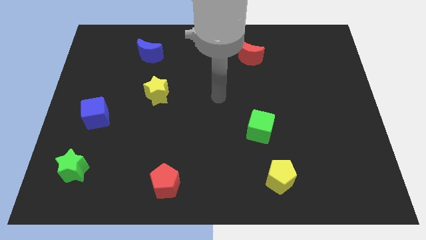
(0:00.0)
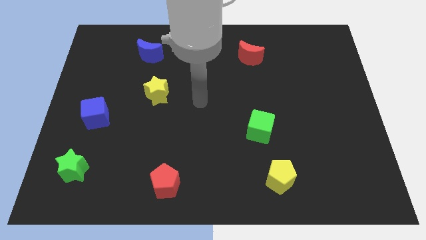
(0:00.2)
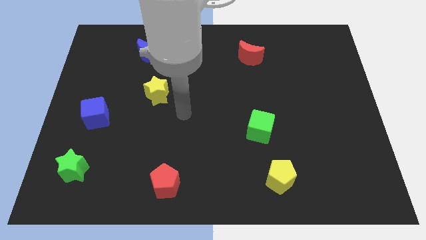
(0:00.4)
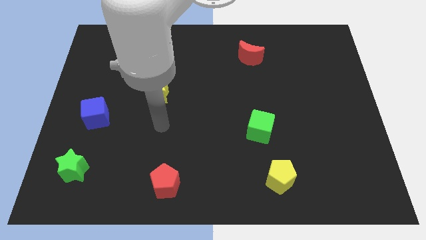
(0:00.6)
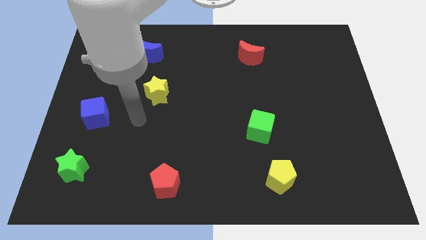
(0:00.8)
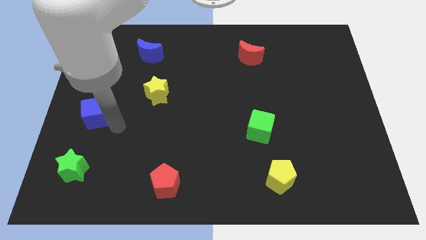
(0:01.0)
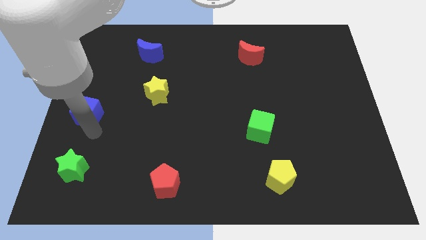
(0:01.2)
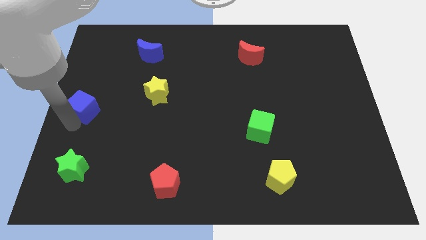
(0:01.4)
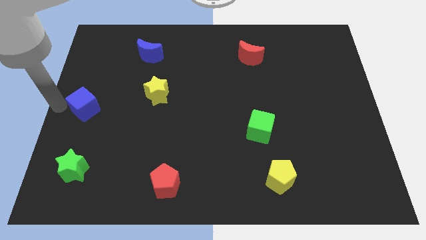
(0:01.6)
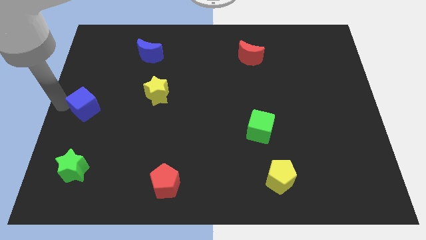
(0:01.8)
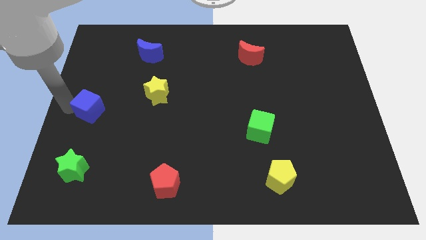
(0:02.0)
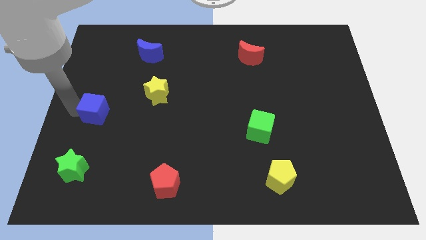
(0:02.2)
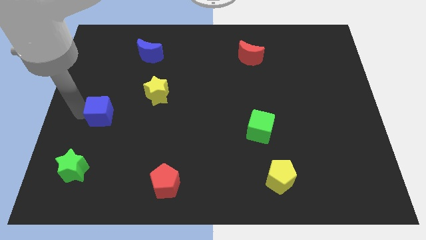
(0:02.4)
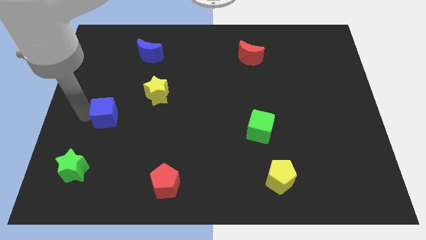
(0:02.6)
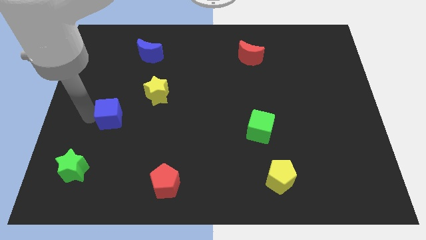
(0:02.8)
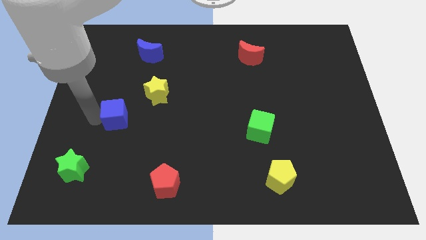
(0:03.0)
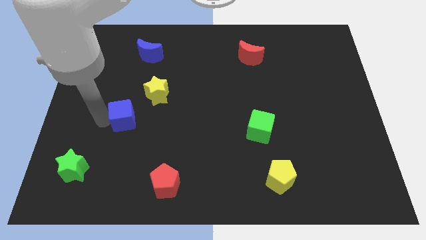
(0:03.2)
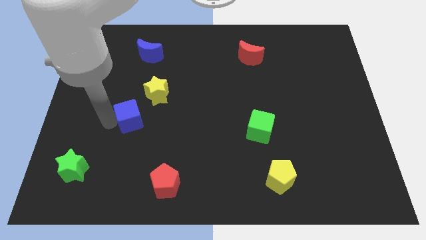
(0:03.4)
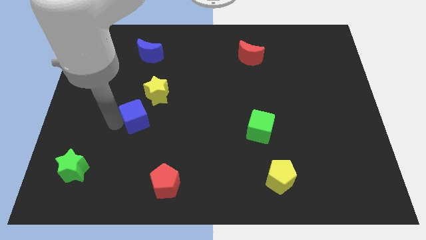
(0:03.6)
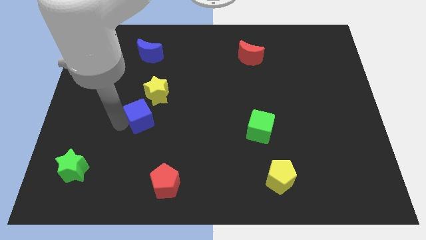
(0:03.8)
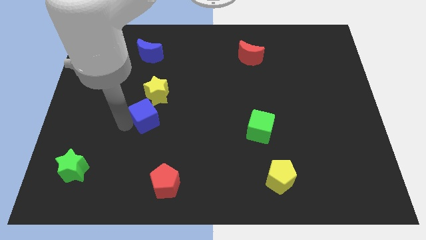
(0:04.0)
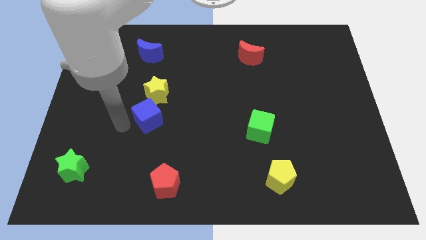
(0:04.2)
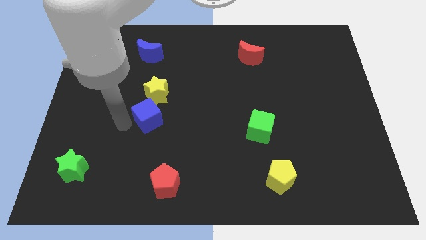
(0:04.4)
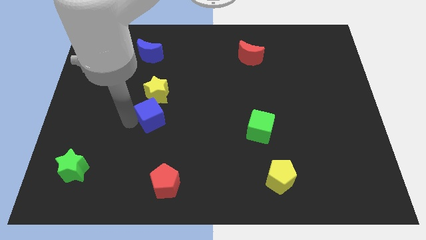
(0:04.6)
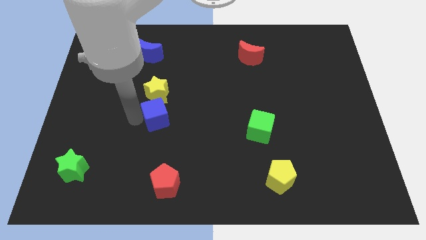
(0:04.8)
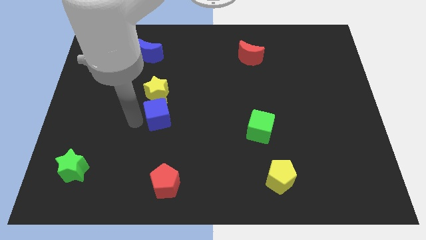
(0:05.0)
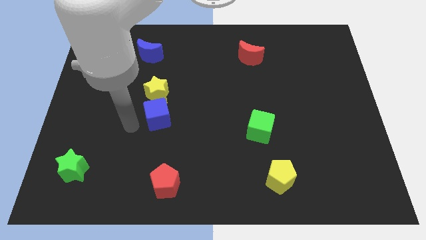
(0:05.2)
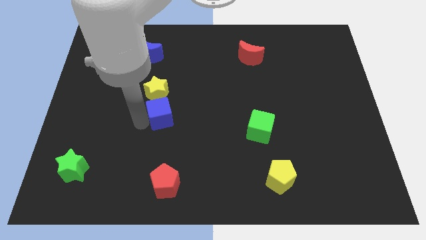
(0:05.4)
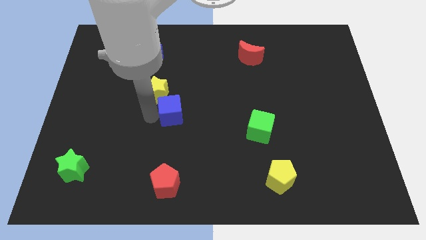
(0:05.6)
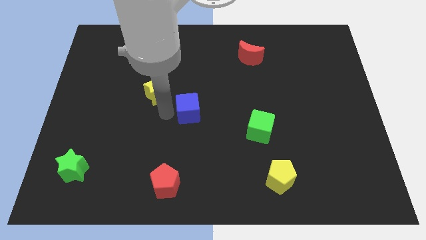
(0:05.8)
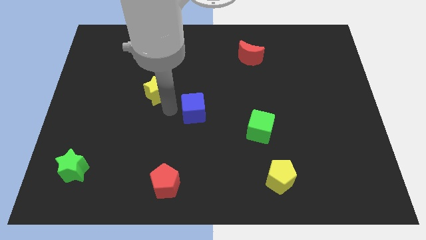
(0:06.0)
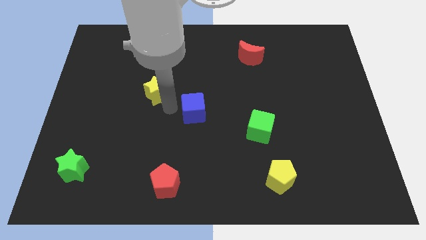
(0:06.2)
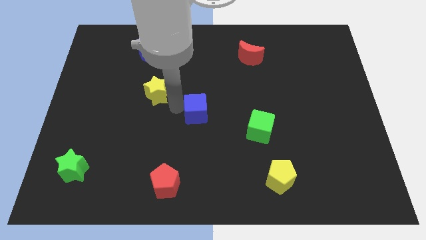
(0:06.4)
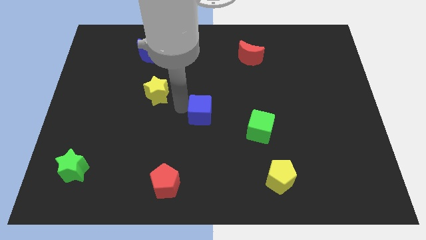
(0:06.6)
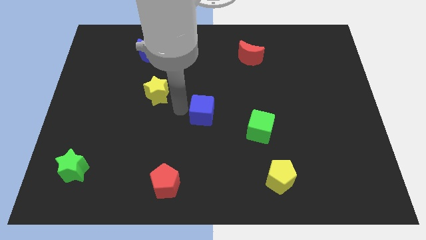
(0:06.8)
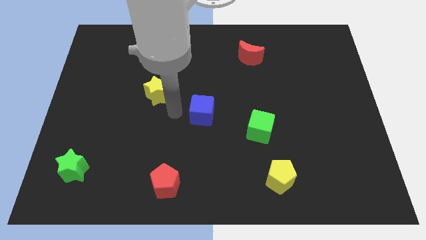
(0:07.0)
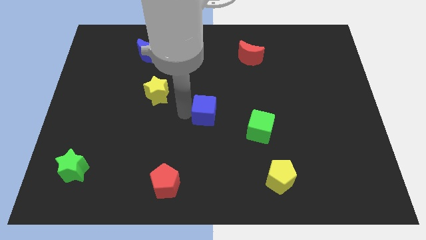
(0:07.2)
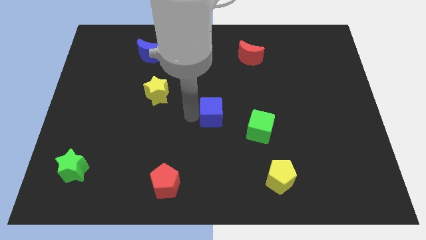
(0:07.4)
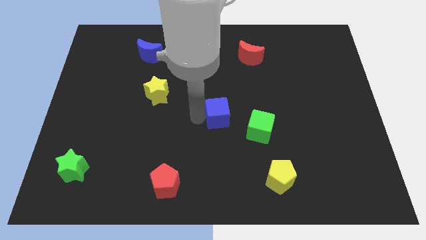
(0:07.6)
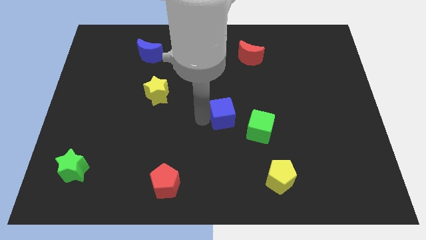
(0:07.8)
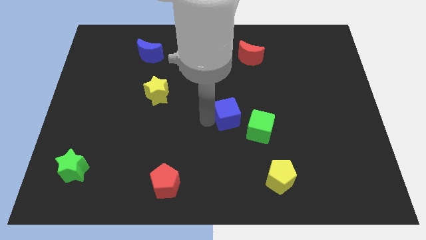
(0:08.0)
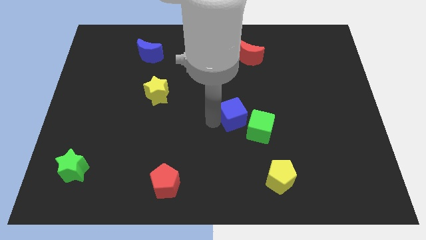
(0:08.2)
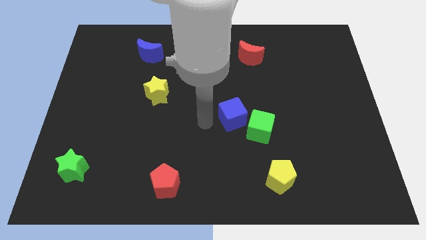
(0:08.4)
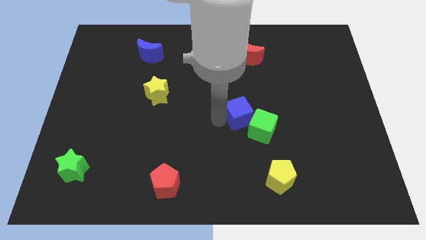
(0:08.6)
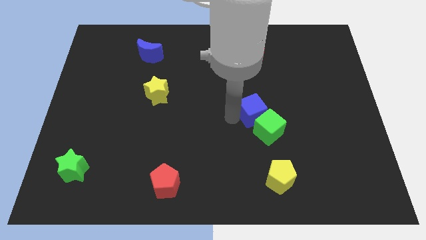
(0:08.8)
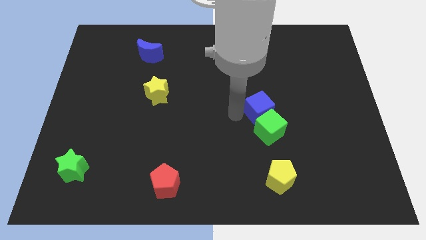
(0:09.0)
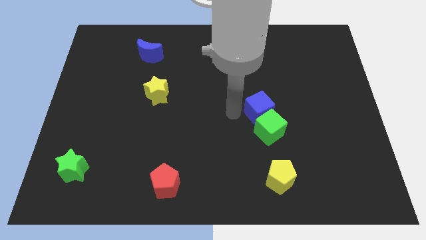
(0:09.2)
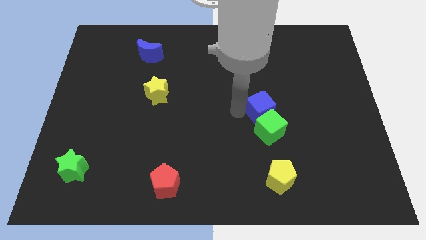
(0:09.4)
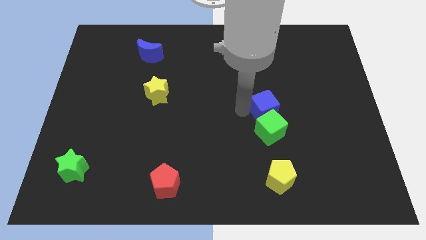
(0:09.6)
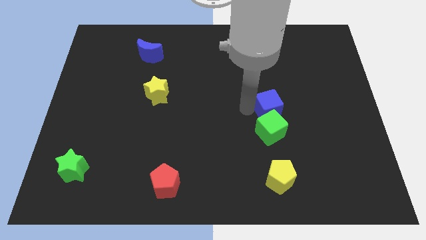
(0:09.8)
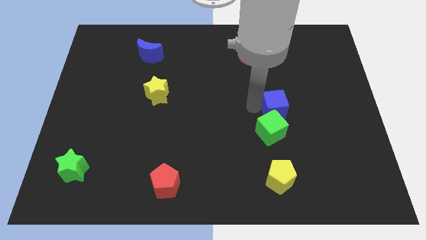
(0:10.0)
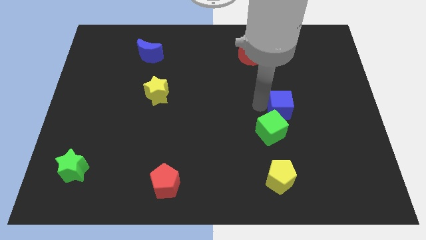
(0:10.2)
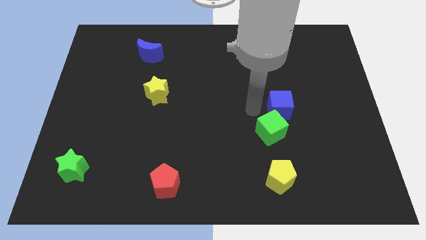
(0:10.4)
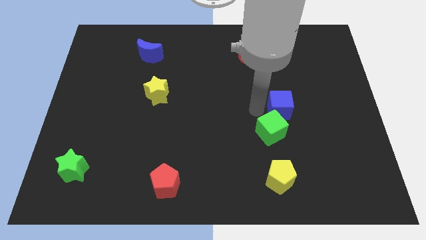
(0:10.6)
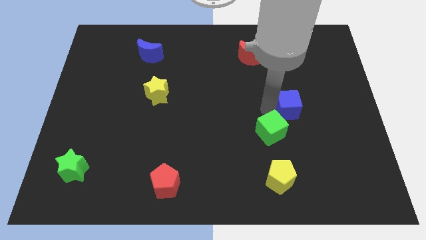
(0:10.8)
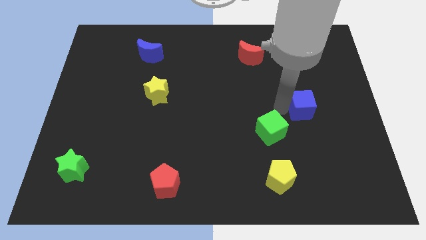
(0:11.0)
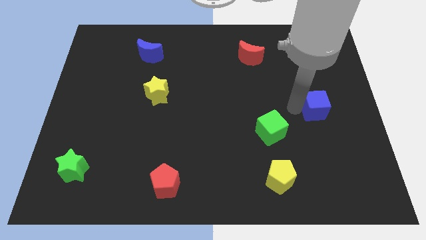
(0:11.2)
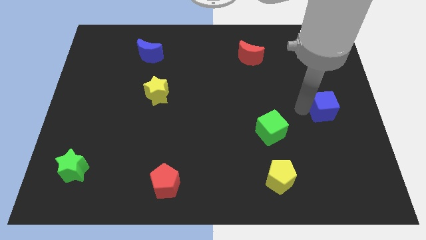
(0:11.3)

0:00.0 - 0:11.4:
move the blue cube to the right side

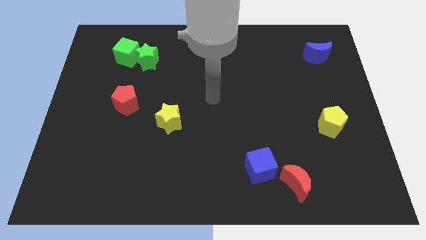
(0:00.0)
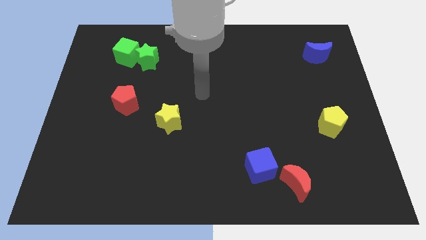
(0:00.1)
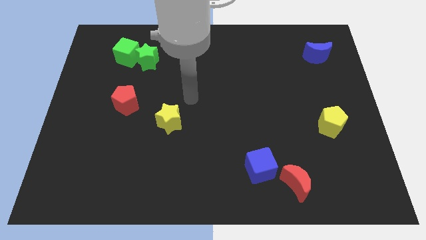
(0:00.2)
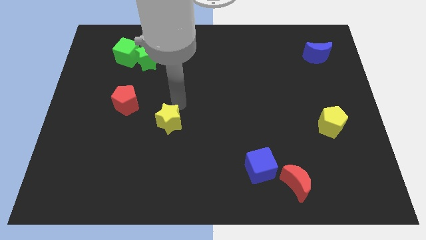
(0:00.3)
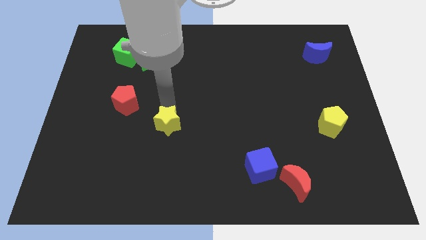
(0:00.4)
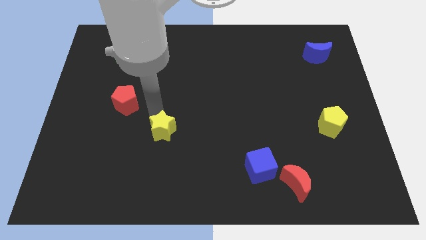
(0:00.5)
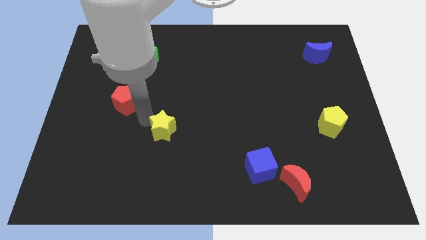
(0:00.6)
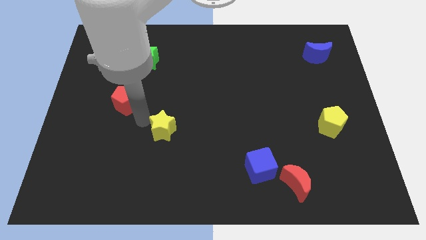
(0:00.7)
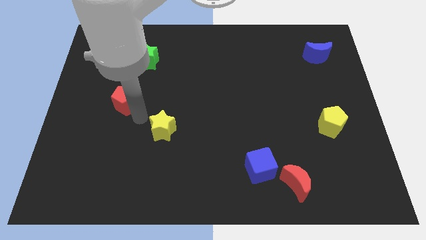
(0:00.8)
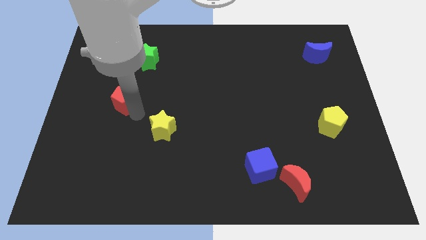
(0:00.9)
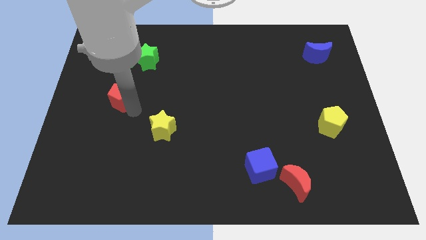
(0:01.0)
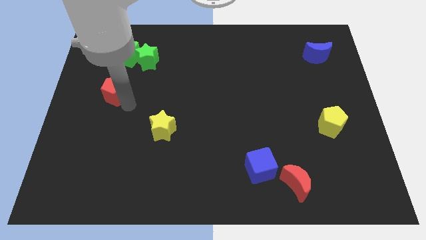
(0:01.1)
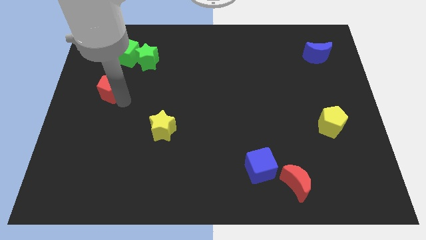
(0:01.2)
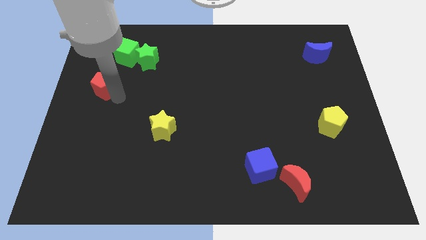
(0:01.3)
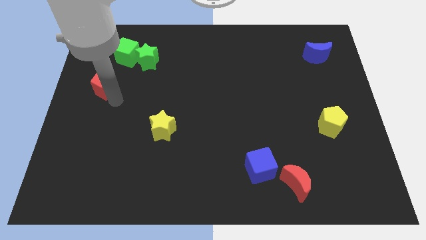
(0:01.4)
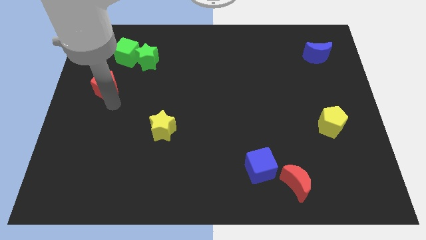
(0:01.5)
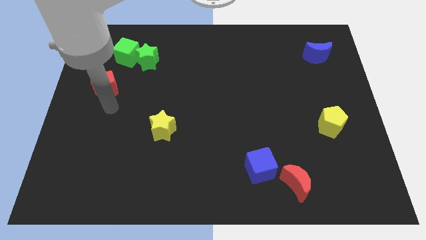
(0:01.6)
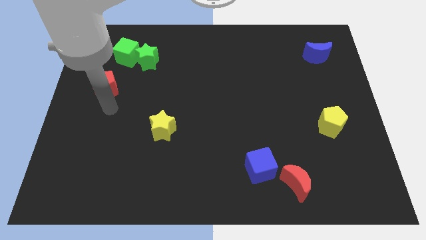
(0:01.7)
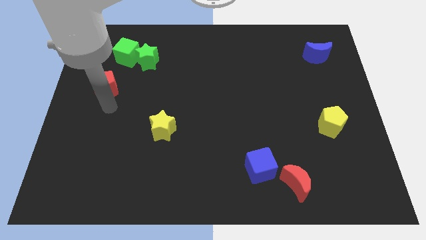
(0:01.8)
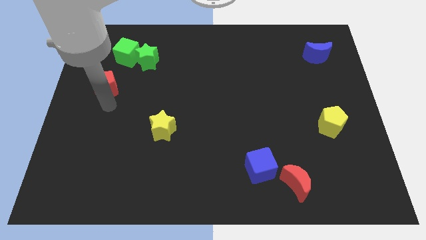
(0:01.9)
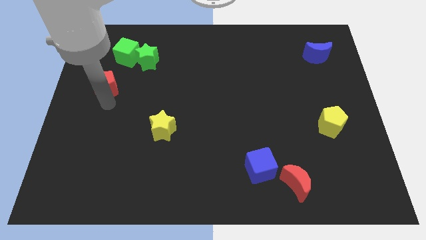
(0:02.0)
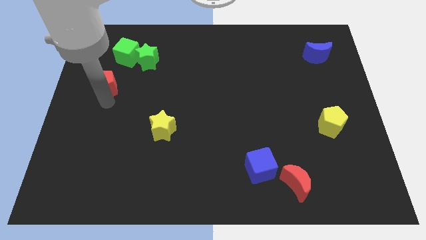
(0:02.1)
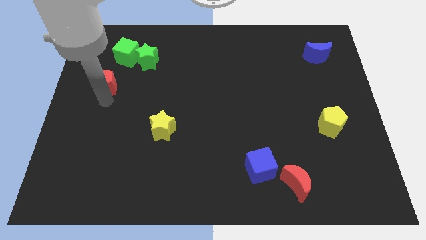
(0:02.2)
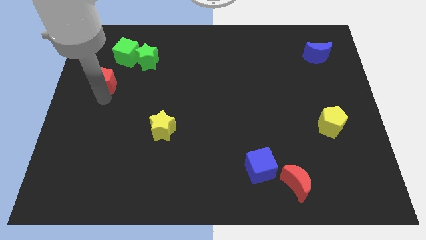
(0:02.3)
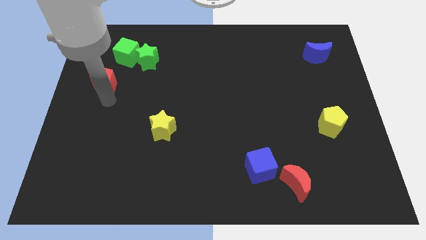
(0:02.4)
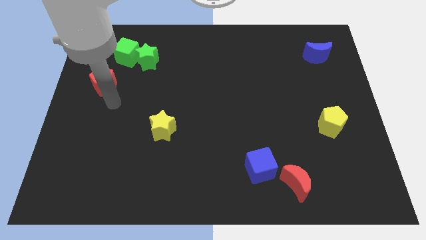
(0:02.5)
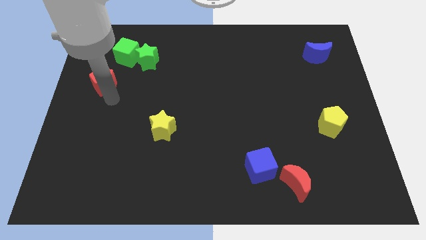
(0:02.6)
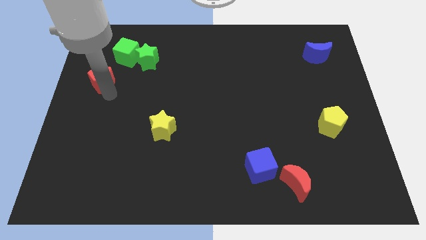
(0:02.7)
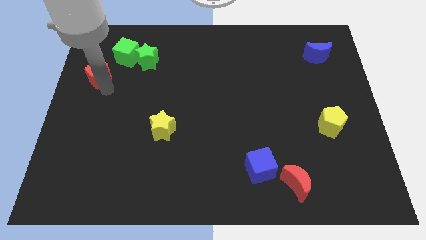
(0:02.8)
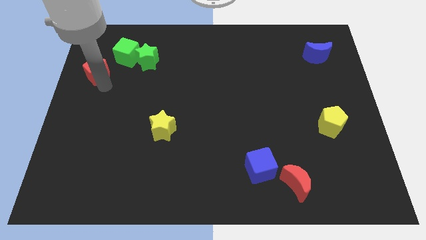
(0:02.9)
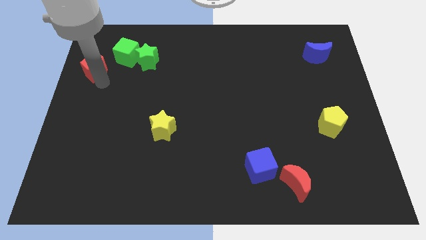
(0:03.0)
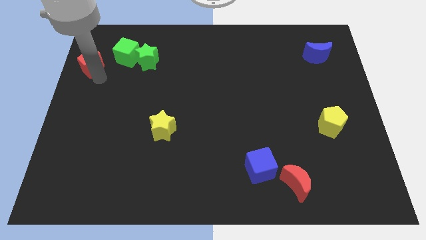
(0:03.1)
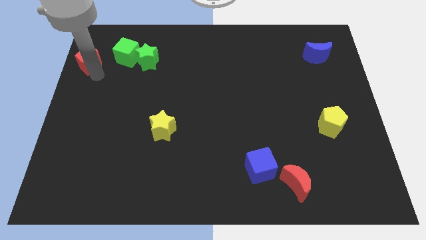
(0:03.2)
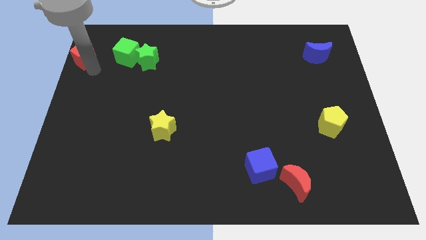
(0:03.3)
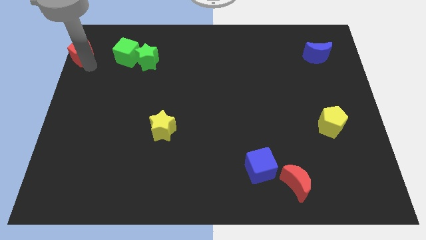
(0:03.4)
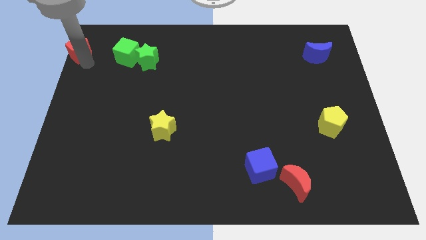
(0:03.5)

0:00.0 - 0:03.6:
put the red pentagon to the top left corner
